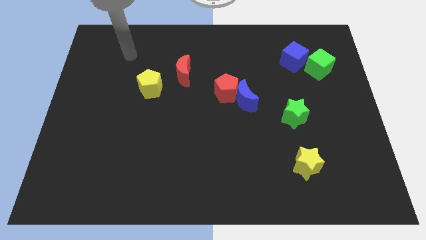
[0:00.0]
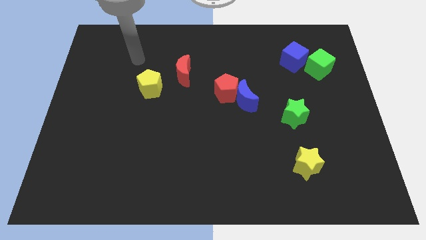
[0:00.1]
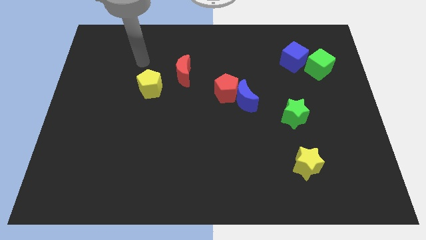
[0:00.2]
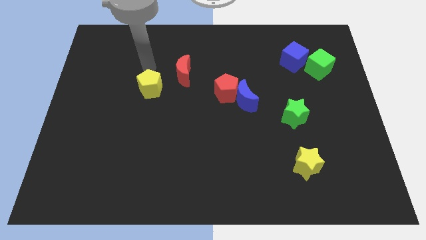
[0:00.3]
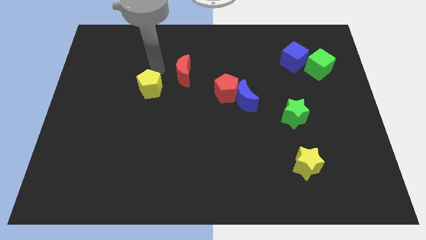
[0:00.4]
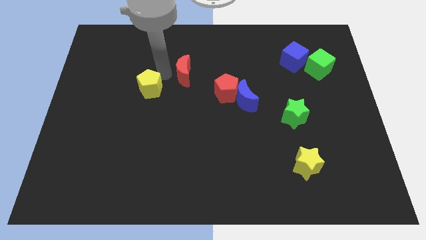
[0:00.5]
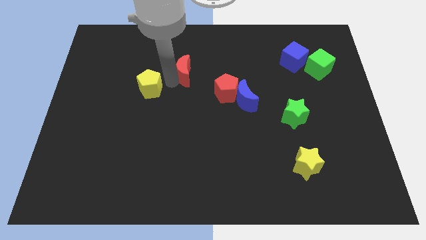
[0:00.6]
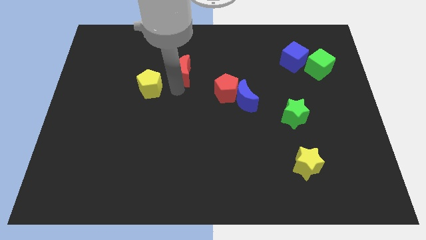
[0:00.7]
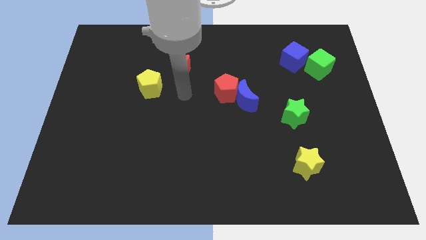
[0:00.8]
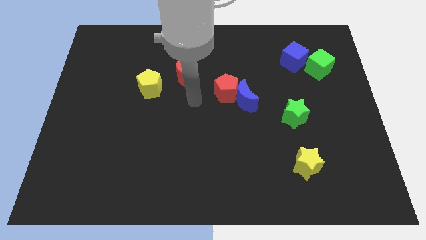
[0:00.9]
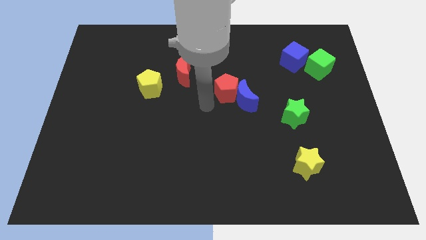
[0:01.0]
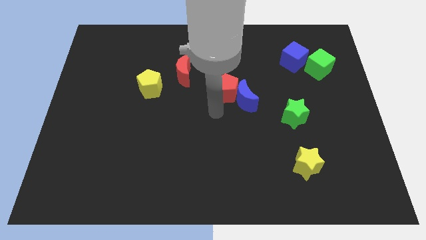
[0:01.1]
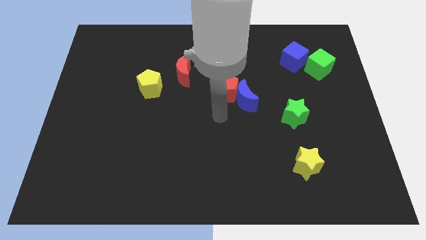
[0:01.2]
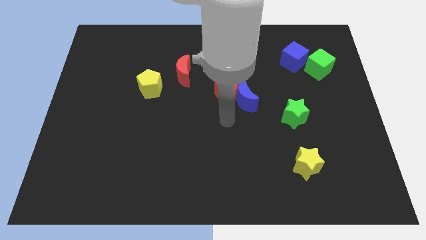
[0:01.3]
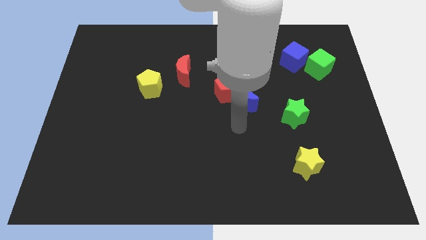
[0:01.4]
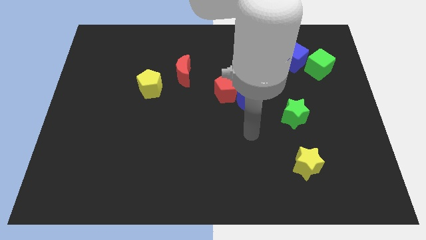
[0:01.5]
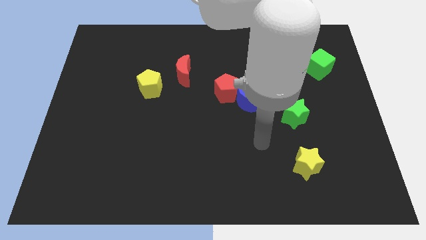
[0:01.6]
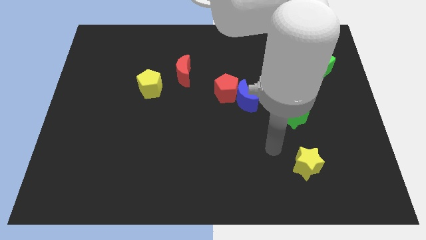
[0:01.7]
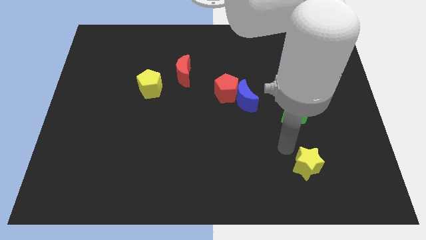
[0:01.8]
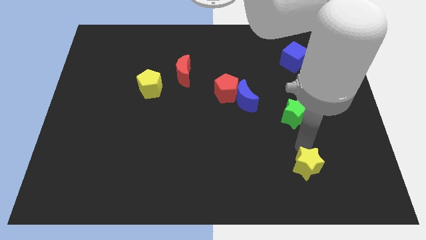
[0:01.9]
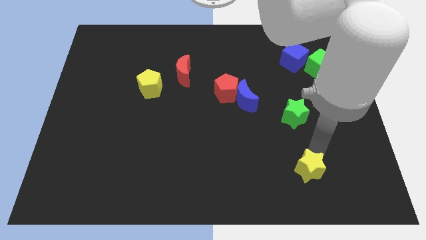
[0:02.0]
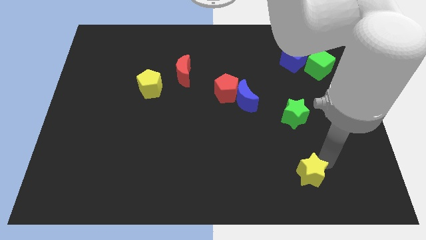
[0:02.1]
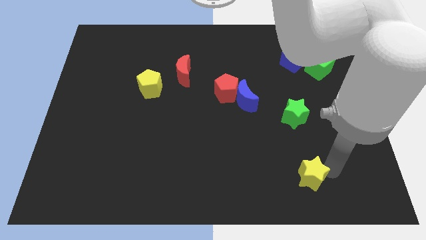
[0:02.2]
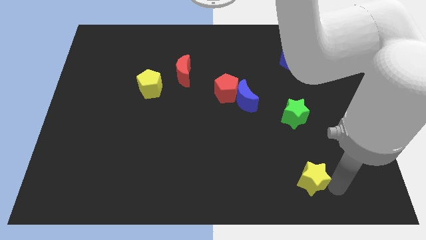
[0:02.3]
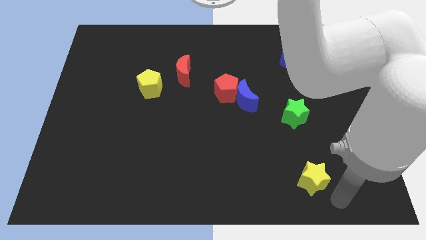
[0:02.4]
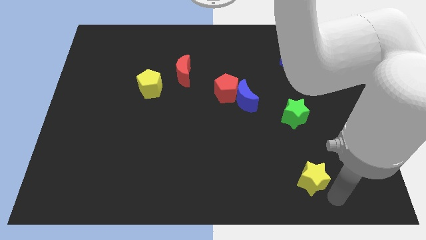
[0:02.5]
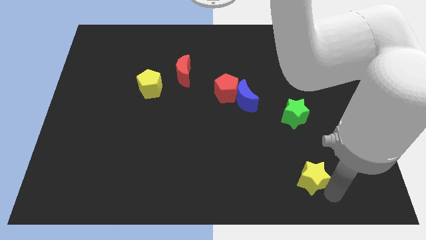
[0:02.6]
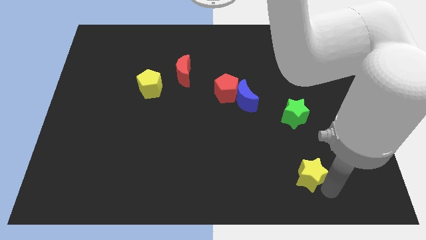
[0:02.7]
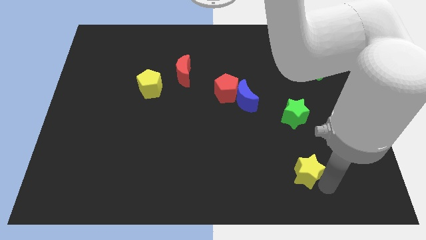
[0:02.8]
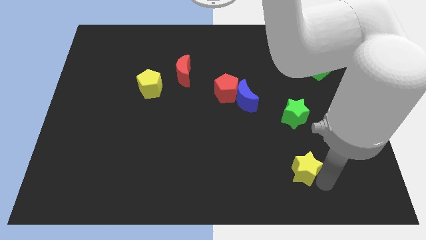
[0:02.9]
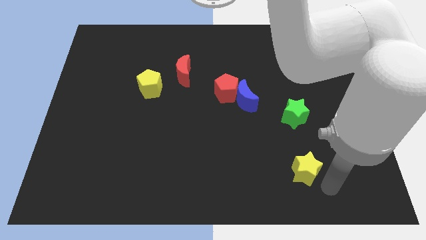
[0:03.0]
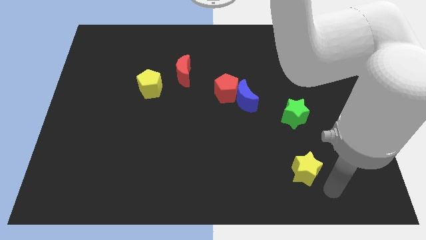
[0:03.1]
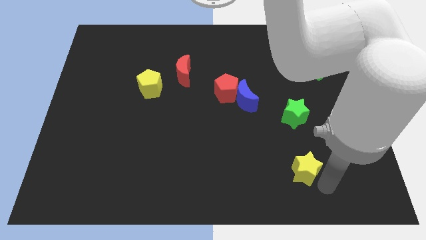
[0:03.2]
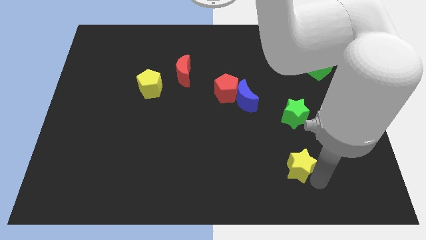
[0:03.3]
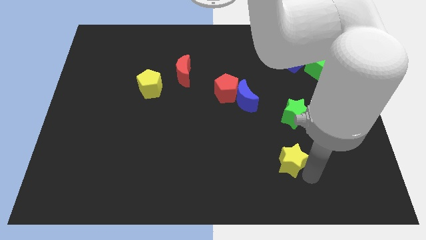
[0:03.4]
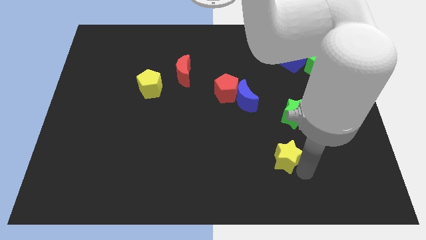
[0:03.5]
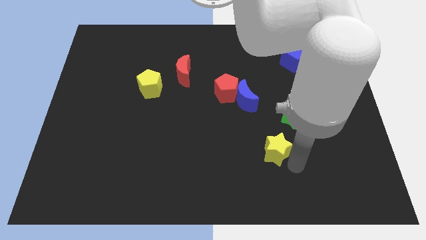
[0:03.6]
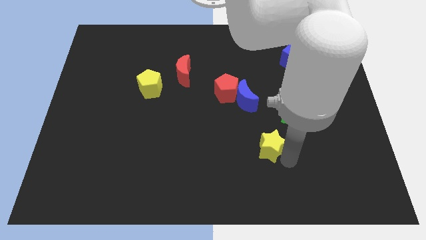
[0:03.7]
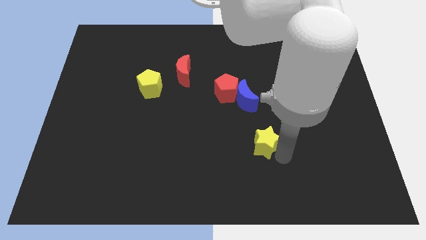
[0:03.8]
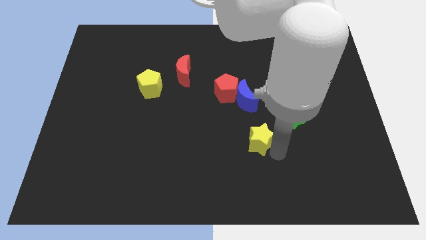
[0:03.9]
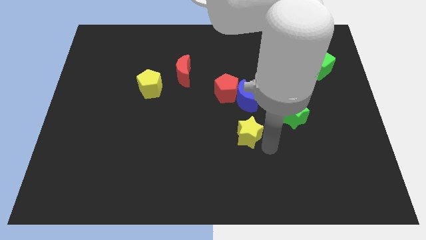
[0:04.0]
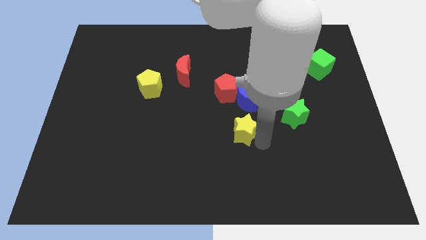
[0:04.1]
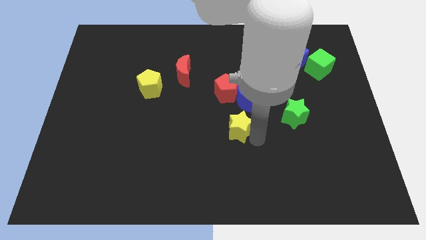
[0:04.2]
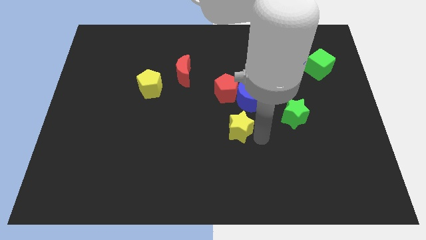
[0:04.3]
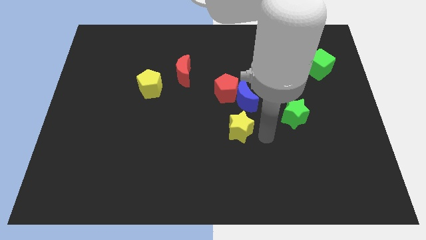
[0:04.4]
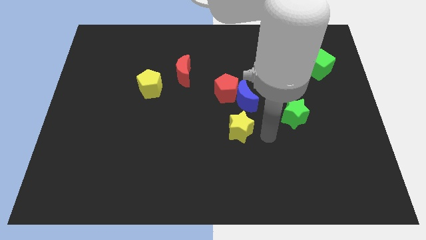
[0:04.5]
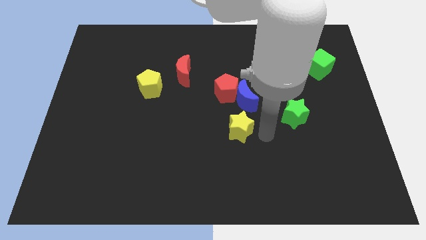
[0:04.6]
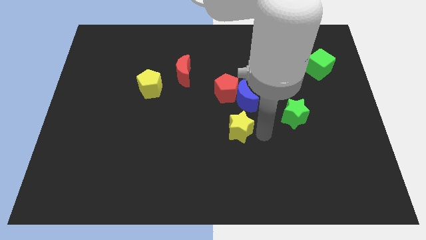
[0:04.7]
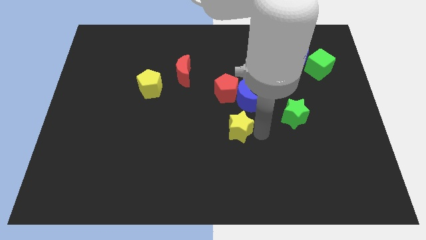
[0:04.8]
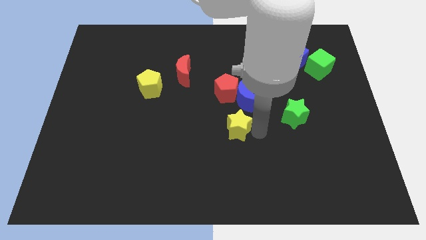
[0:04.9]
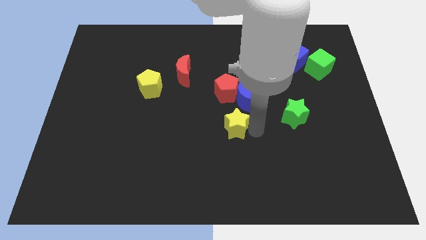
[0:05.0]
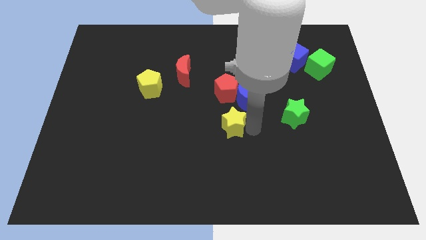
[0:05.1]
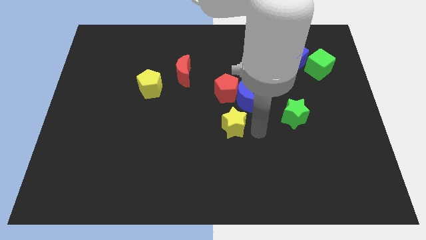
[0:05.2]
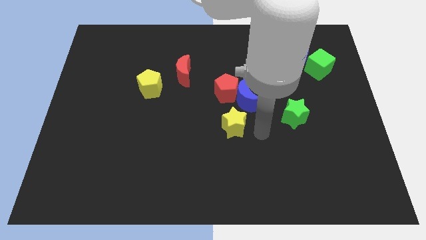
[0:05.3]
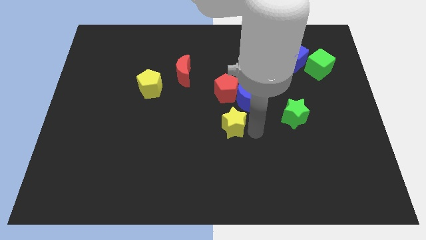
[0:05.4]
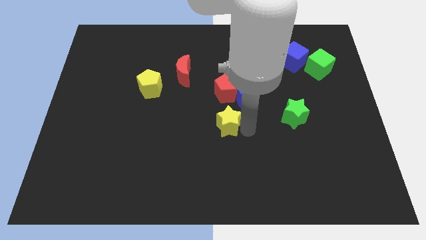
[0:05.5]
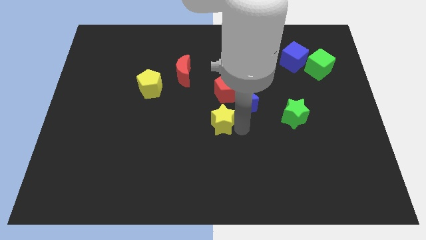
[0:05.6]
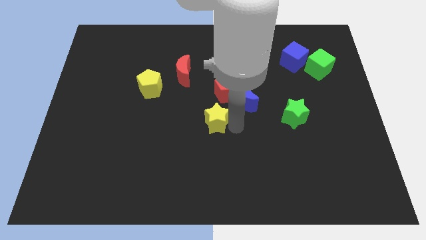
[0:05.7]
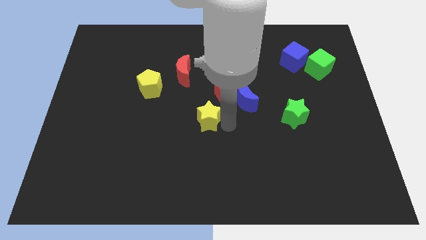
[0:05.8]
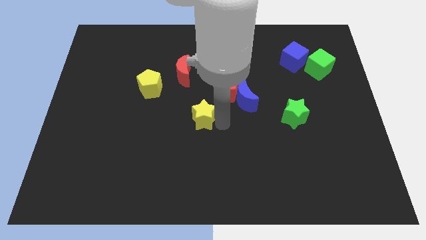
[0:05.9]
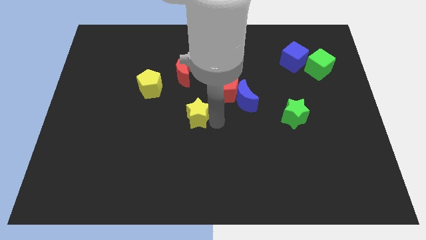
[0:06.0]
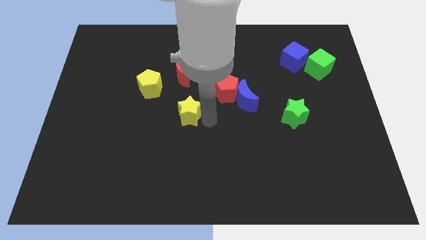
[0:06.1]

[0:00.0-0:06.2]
push the yellow star to the bottom right side of the yellow pentagon

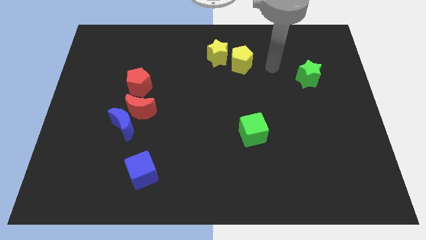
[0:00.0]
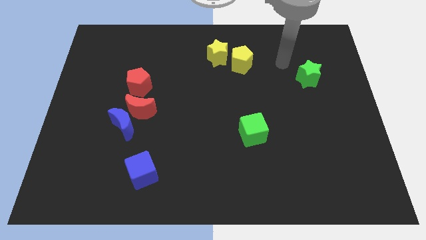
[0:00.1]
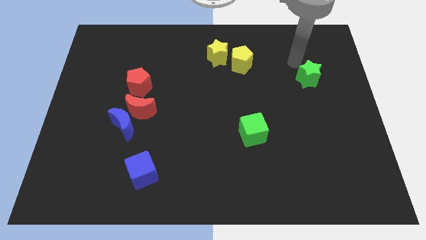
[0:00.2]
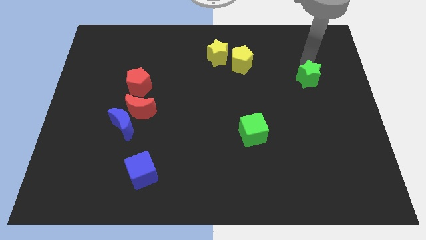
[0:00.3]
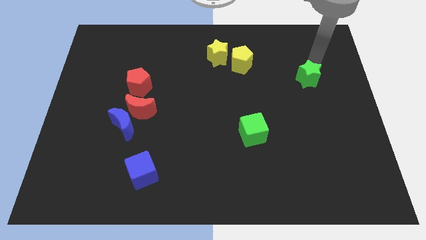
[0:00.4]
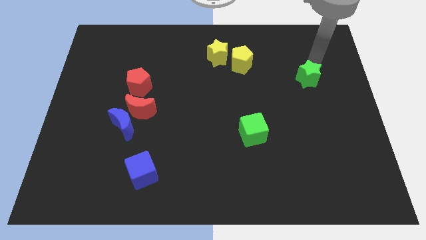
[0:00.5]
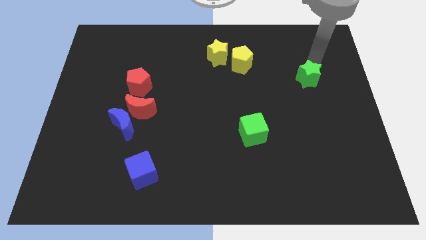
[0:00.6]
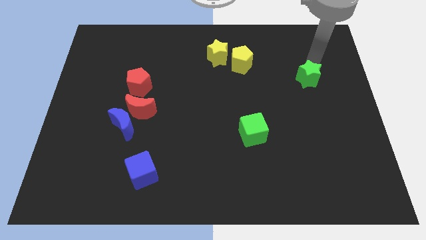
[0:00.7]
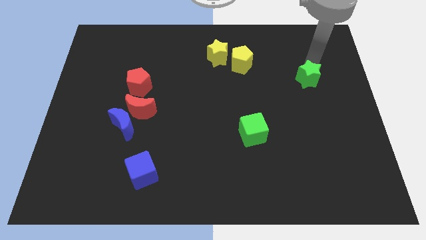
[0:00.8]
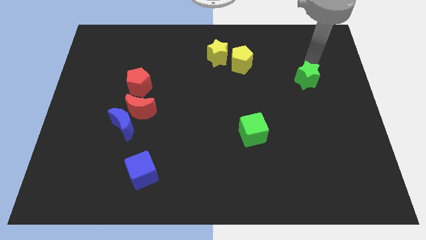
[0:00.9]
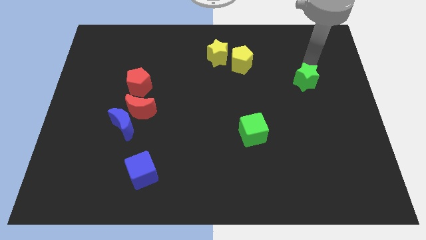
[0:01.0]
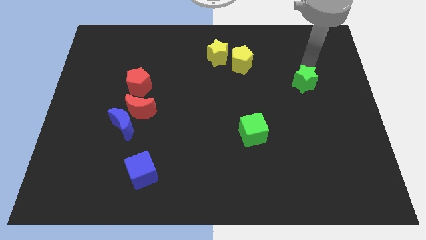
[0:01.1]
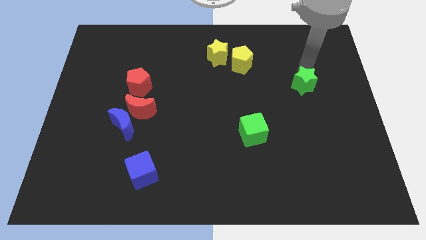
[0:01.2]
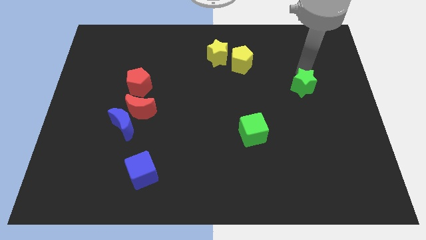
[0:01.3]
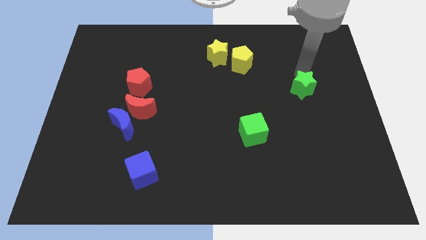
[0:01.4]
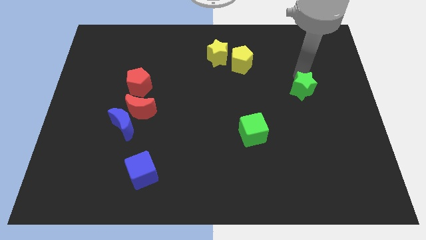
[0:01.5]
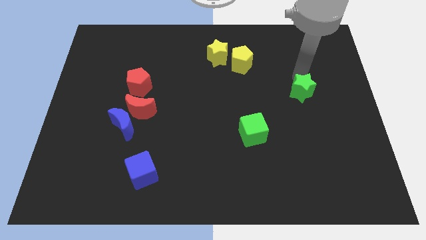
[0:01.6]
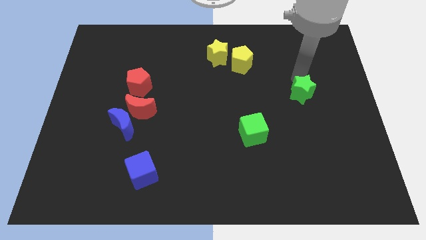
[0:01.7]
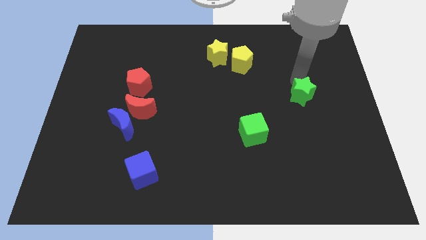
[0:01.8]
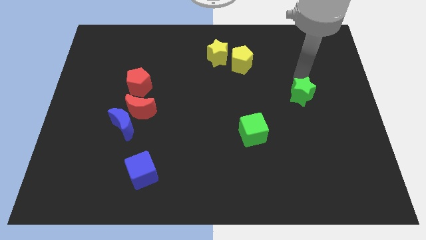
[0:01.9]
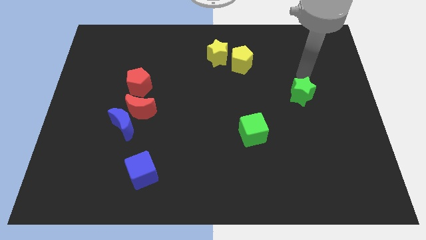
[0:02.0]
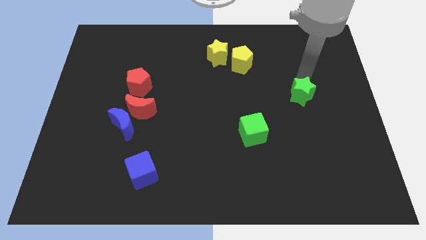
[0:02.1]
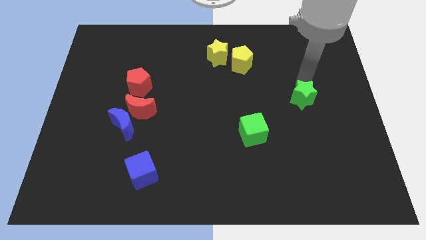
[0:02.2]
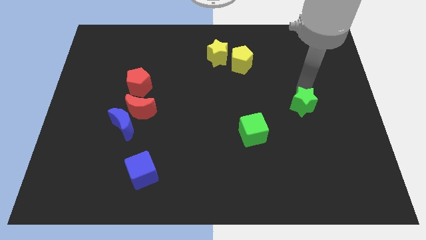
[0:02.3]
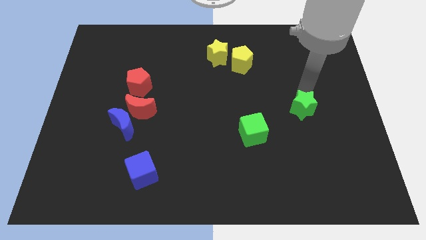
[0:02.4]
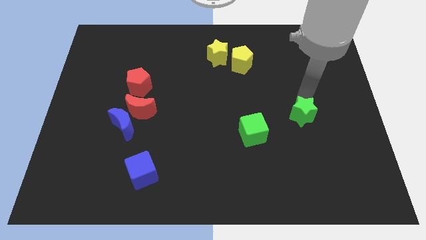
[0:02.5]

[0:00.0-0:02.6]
move the green star to the right side of the green cube
